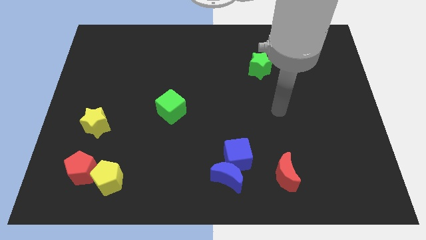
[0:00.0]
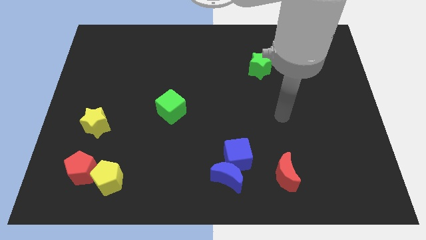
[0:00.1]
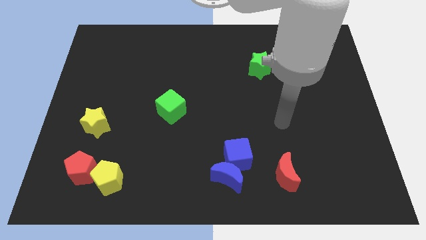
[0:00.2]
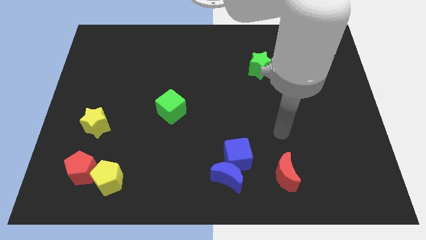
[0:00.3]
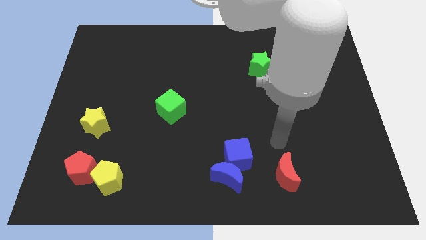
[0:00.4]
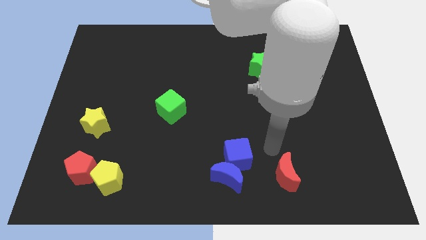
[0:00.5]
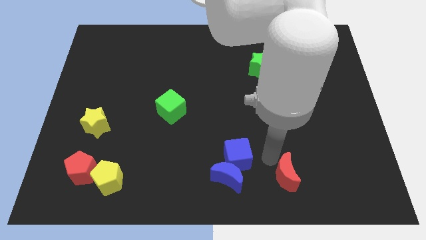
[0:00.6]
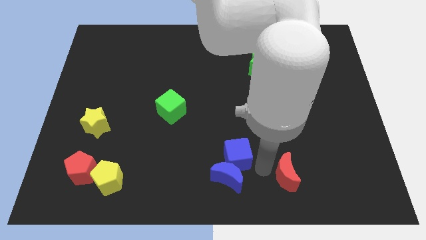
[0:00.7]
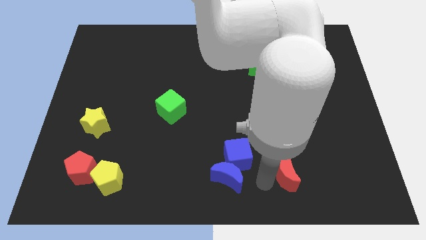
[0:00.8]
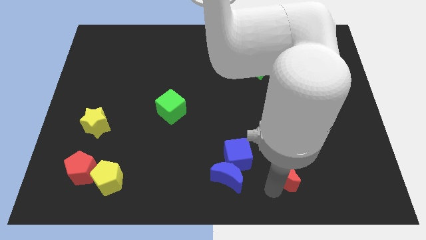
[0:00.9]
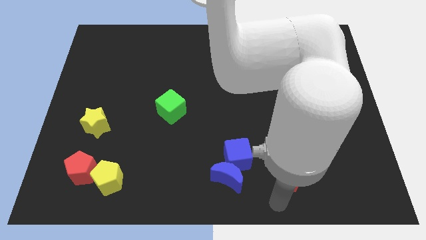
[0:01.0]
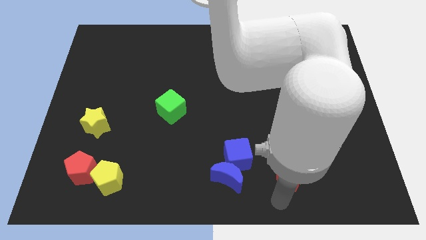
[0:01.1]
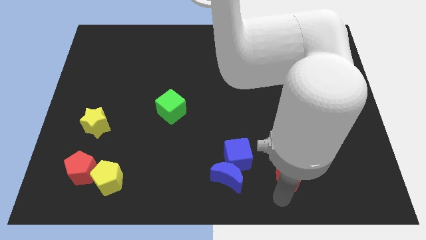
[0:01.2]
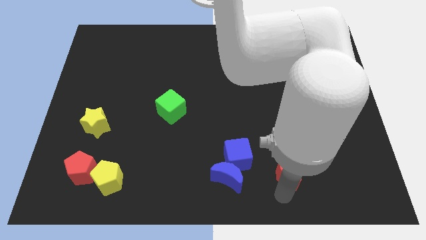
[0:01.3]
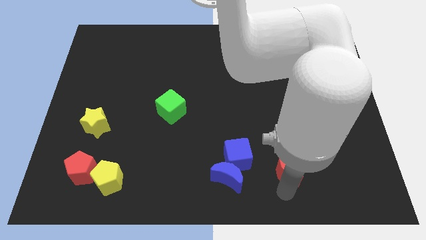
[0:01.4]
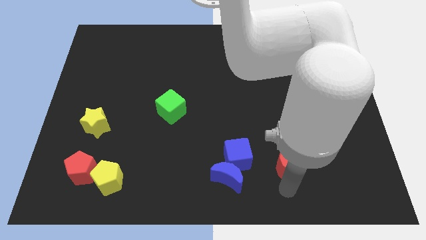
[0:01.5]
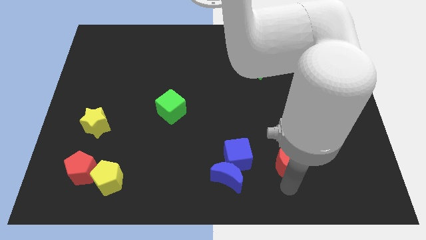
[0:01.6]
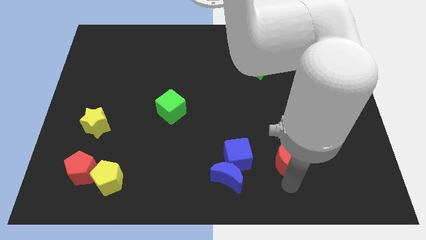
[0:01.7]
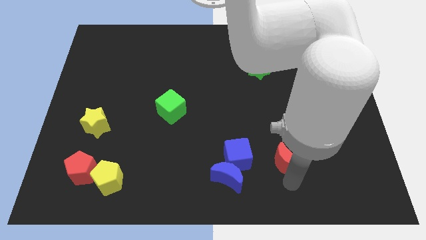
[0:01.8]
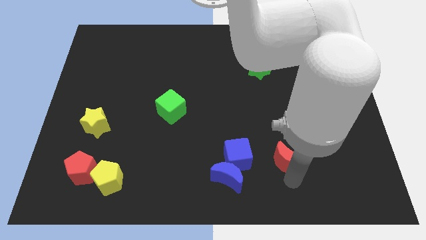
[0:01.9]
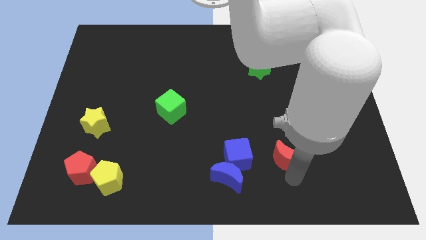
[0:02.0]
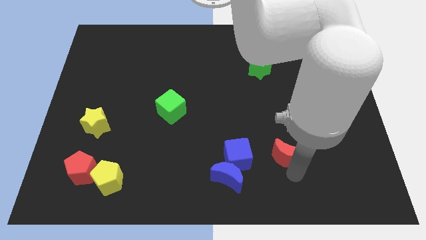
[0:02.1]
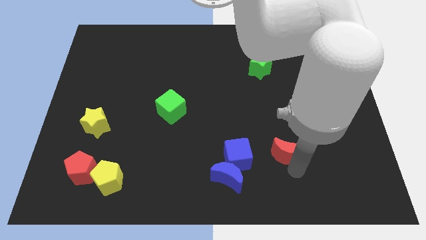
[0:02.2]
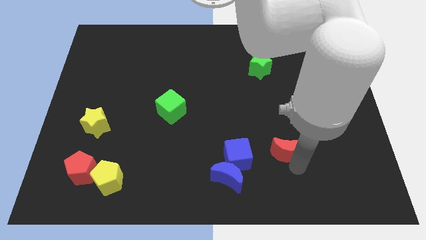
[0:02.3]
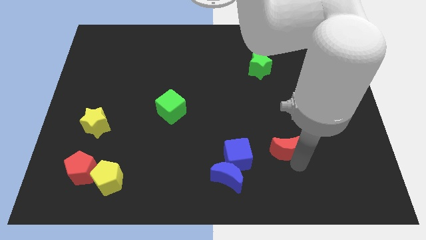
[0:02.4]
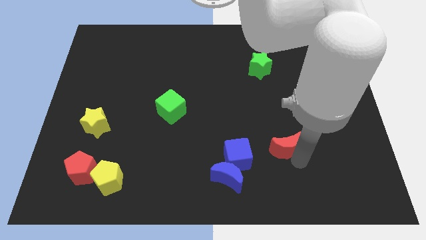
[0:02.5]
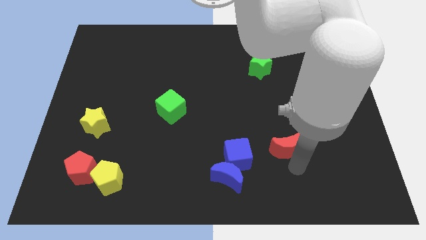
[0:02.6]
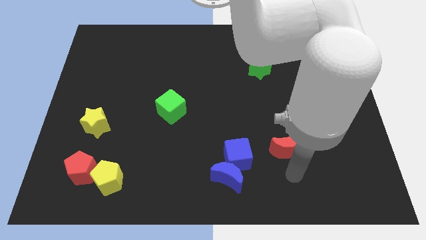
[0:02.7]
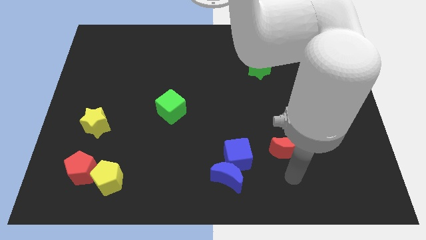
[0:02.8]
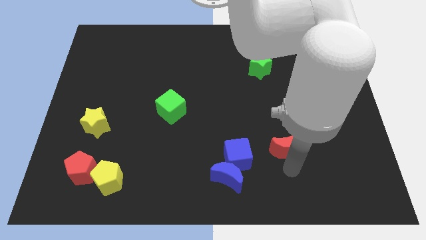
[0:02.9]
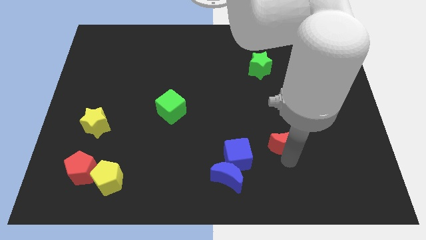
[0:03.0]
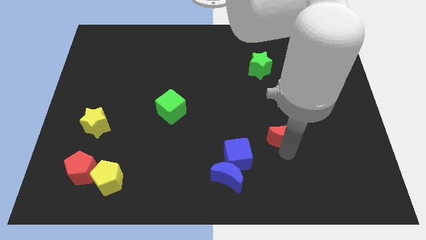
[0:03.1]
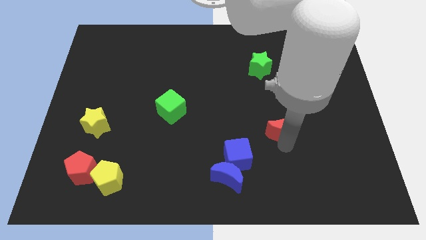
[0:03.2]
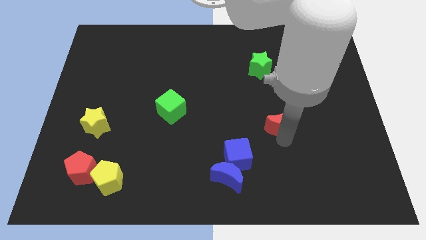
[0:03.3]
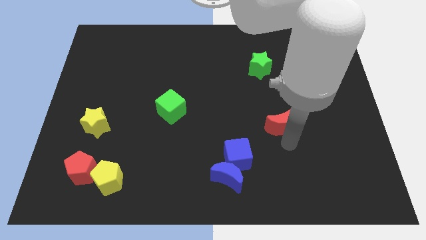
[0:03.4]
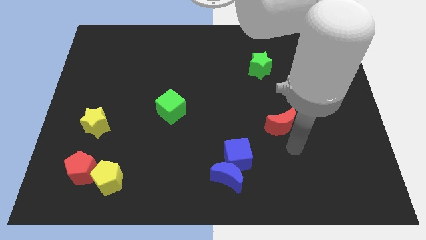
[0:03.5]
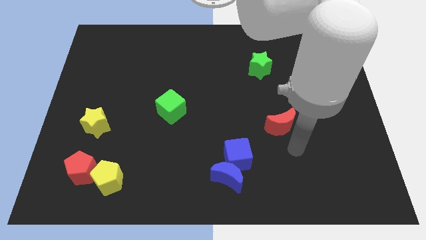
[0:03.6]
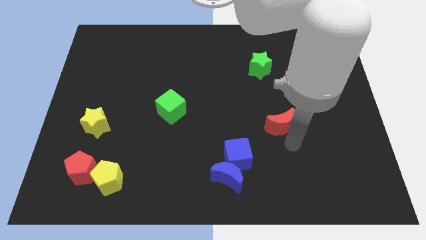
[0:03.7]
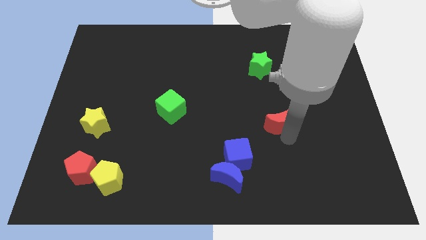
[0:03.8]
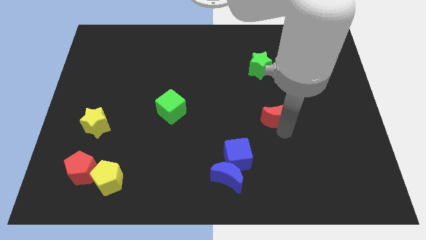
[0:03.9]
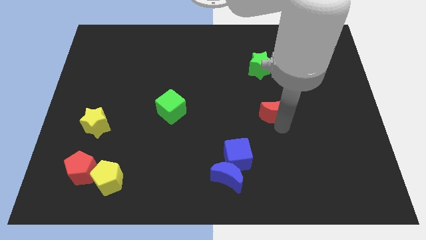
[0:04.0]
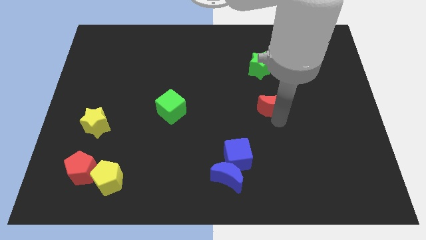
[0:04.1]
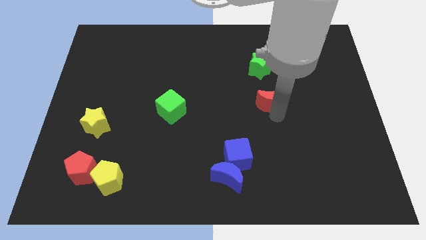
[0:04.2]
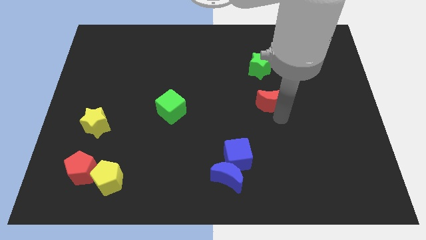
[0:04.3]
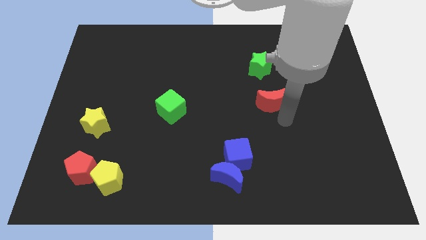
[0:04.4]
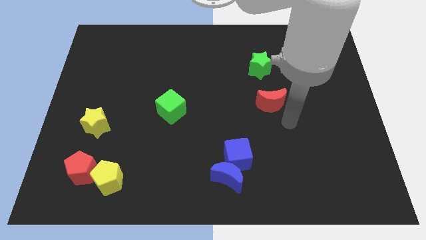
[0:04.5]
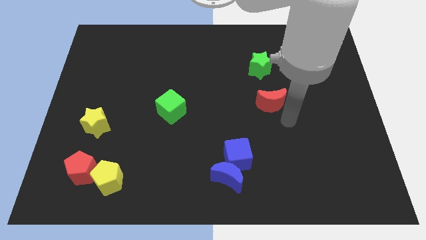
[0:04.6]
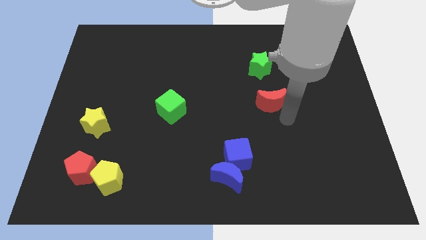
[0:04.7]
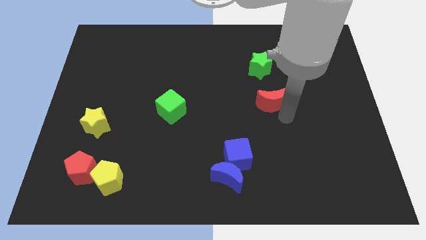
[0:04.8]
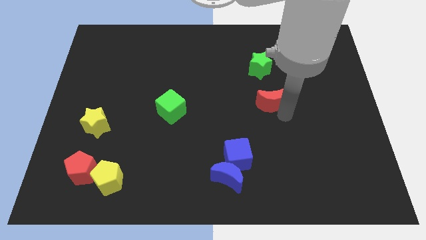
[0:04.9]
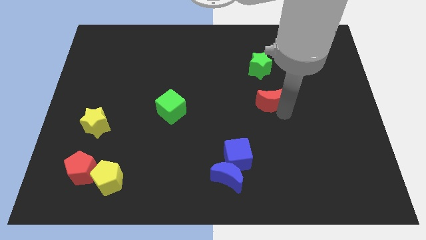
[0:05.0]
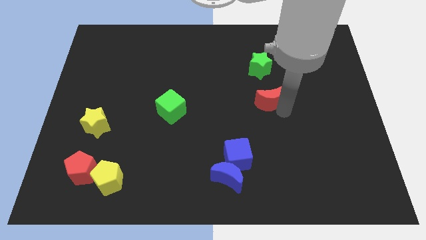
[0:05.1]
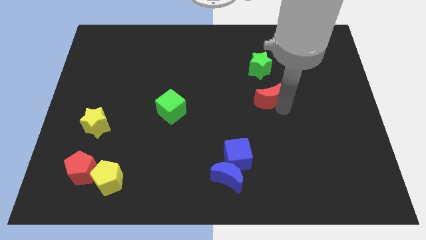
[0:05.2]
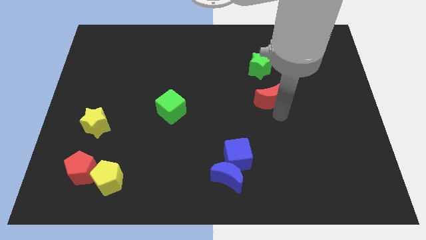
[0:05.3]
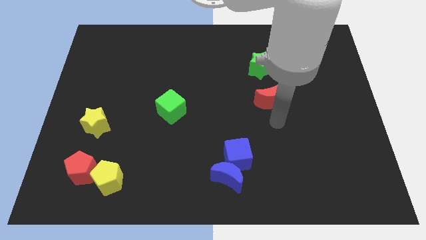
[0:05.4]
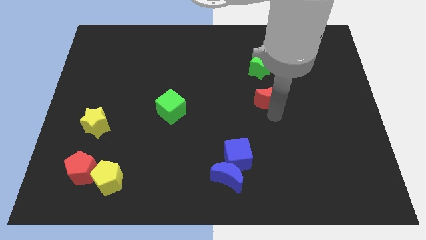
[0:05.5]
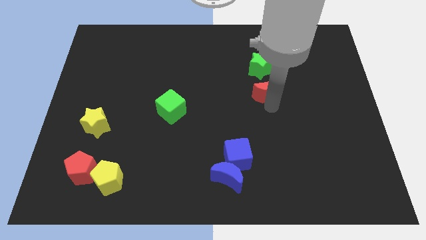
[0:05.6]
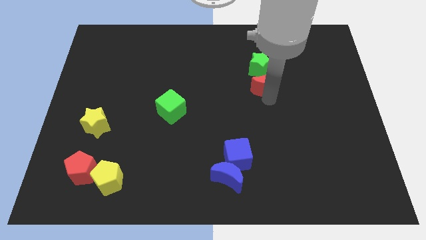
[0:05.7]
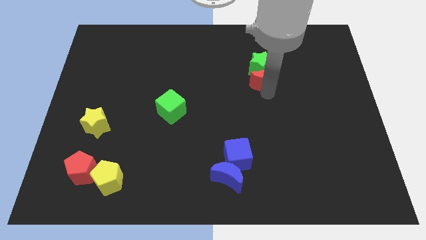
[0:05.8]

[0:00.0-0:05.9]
put the red moon close to the green star

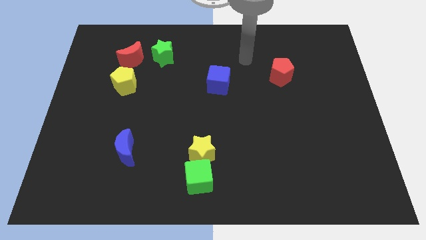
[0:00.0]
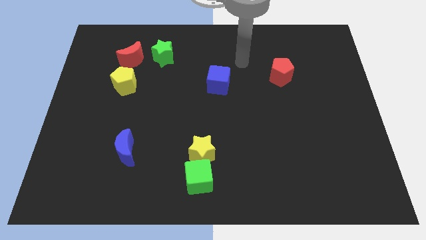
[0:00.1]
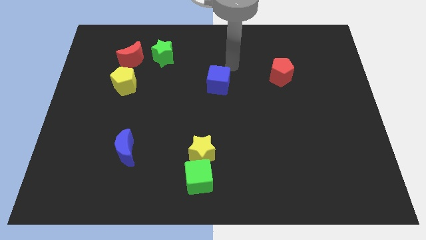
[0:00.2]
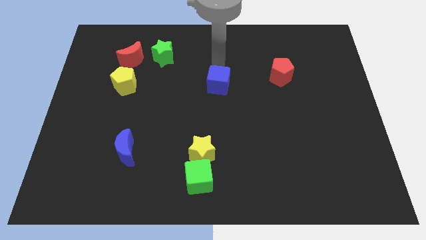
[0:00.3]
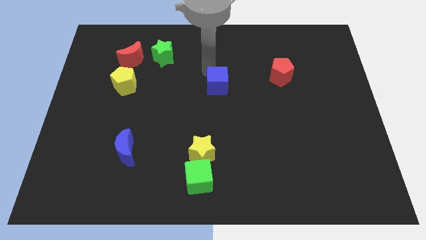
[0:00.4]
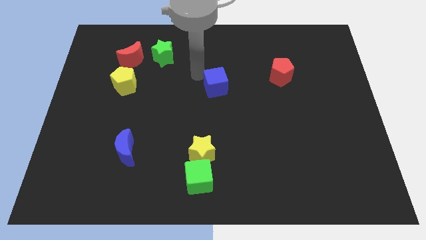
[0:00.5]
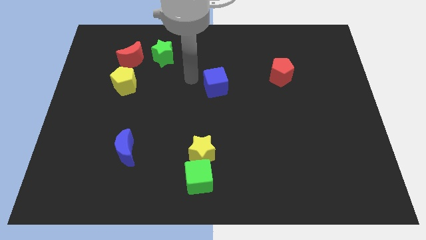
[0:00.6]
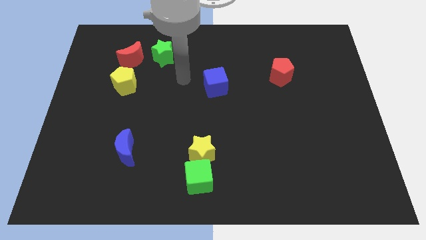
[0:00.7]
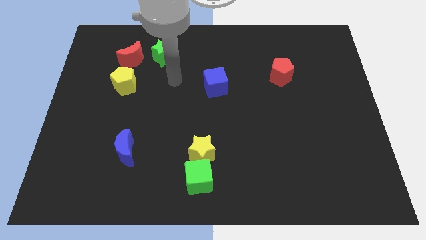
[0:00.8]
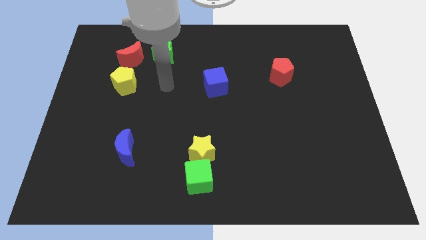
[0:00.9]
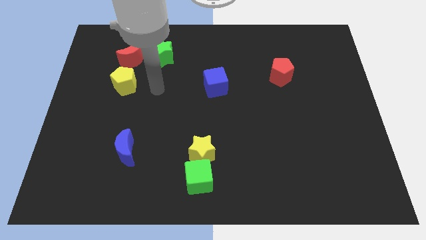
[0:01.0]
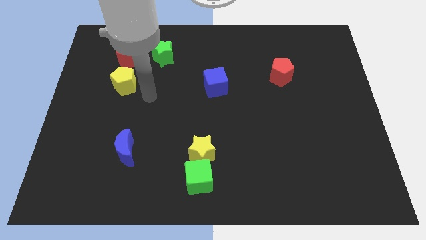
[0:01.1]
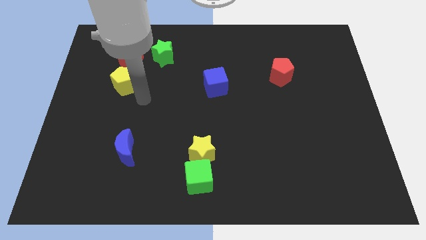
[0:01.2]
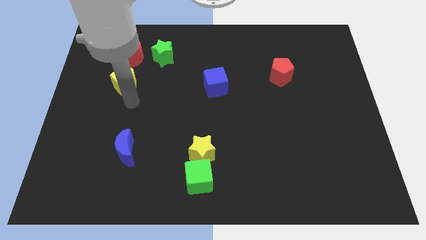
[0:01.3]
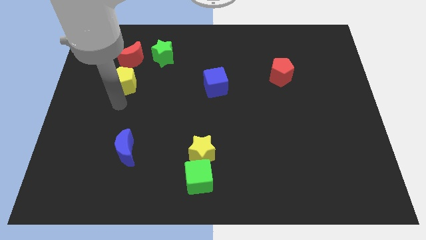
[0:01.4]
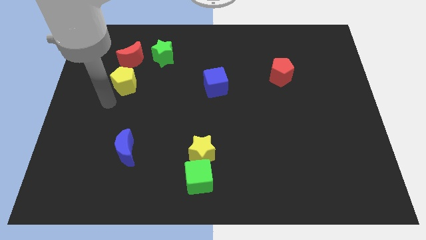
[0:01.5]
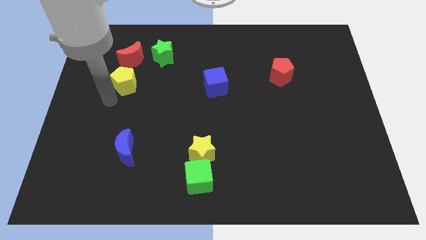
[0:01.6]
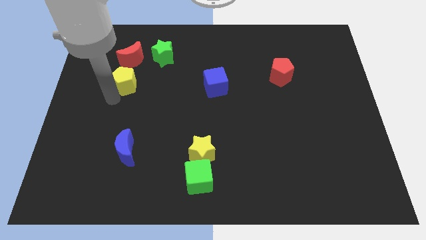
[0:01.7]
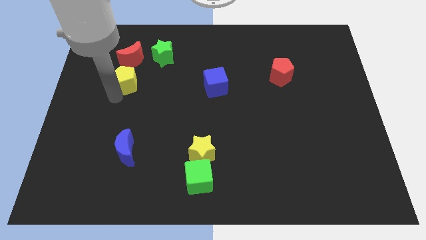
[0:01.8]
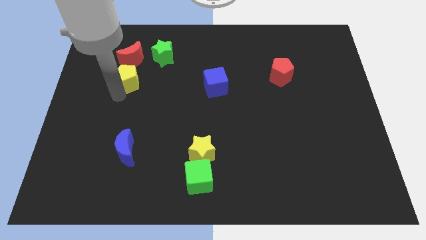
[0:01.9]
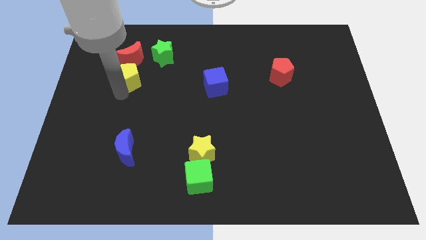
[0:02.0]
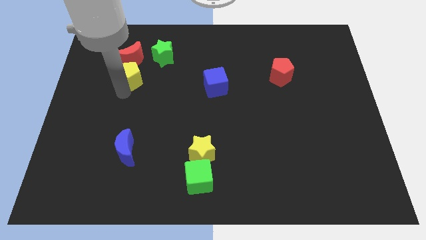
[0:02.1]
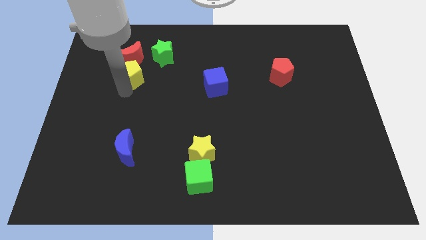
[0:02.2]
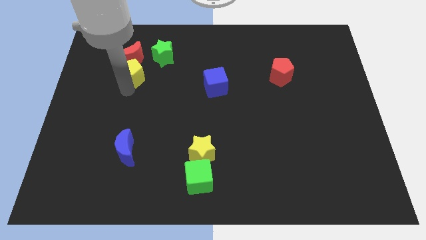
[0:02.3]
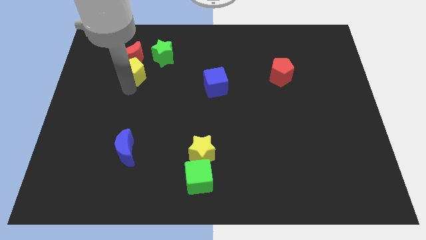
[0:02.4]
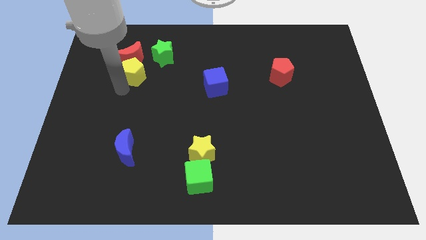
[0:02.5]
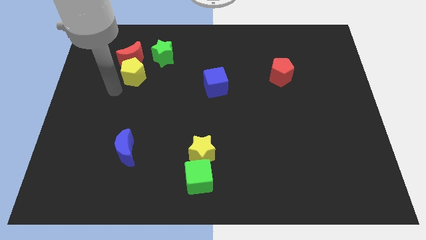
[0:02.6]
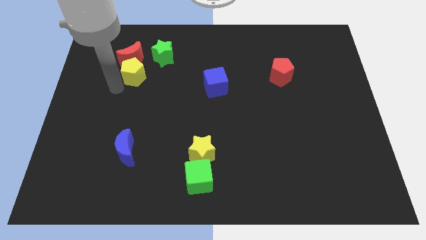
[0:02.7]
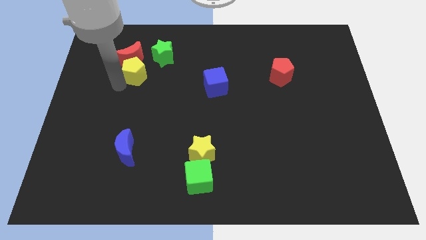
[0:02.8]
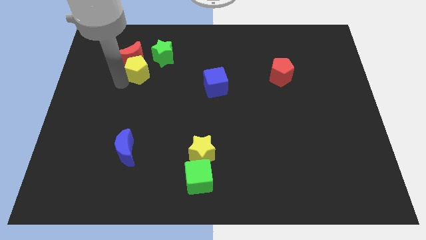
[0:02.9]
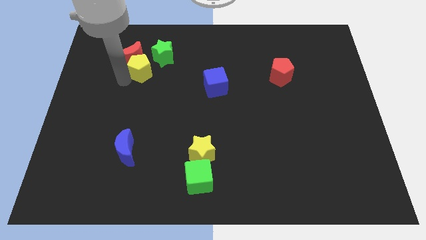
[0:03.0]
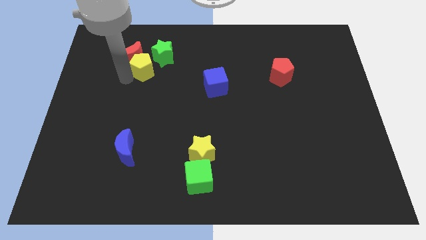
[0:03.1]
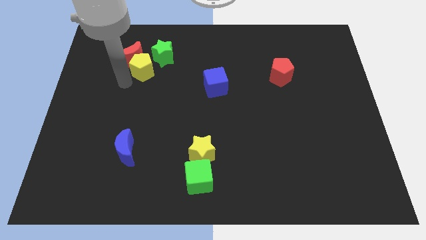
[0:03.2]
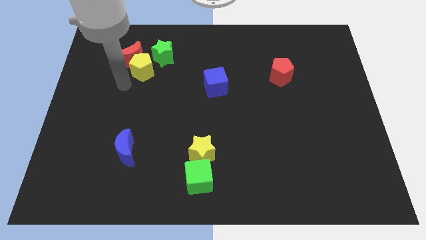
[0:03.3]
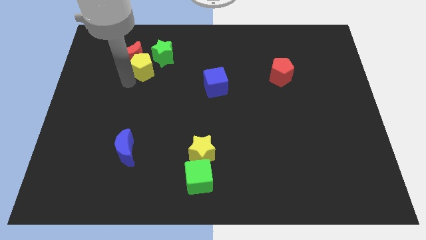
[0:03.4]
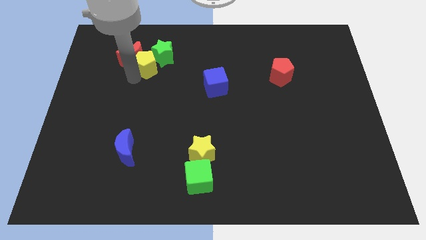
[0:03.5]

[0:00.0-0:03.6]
slide the yellow pentagon next to the green star
